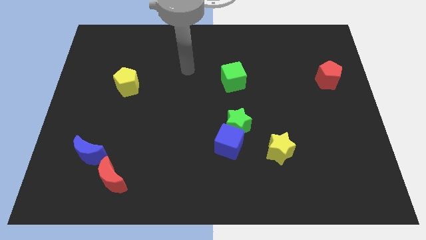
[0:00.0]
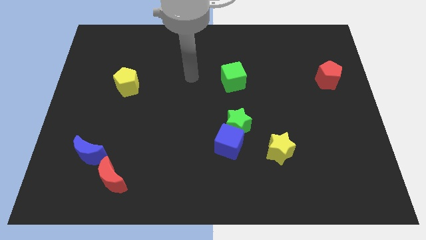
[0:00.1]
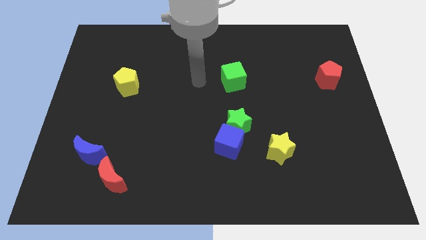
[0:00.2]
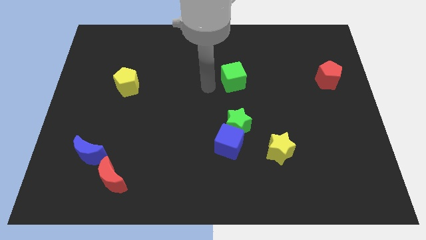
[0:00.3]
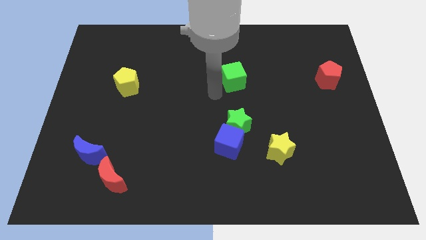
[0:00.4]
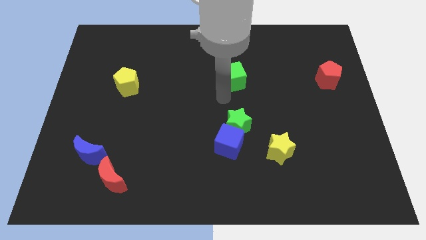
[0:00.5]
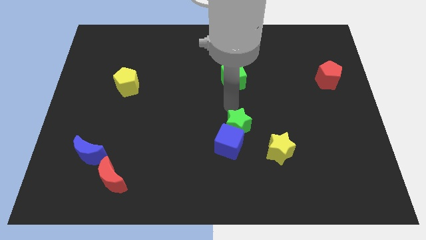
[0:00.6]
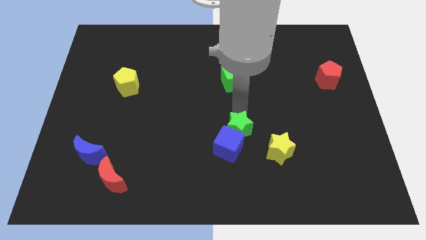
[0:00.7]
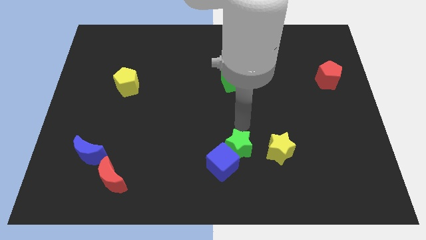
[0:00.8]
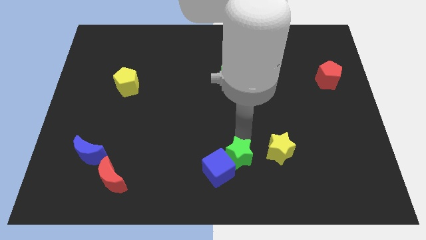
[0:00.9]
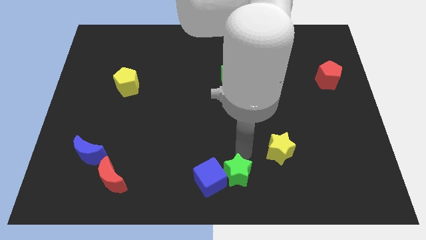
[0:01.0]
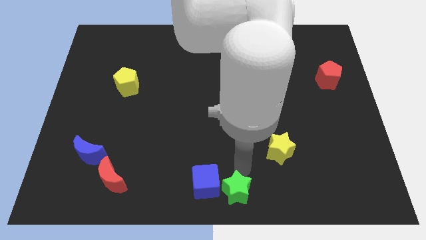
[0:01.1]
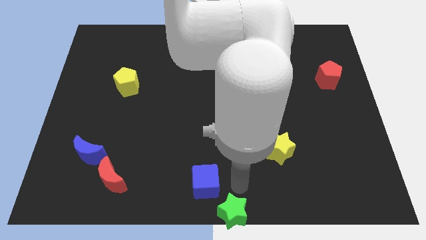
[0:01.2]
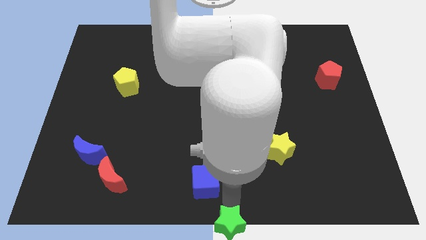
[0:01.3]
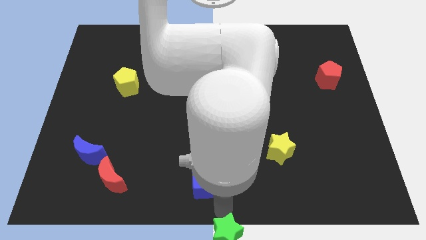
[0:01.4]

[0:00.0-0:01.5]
move the blue cube away from the green star

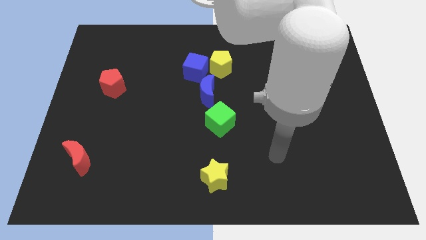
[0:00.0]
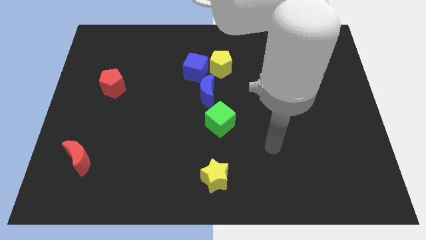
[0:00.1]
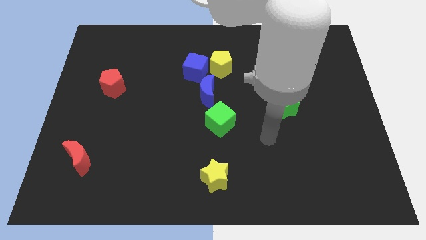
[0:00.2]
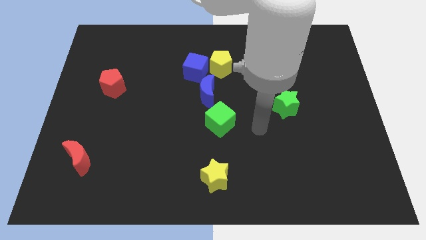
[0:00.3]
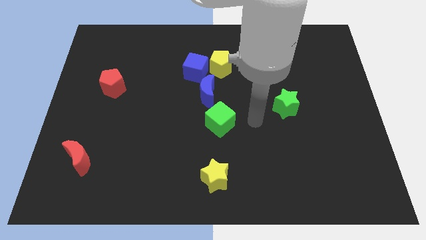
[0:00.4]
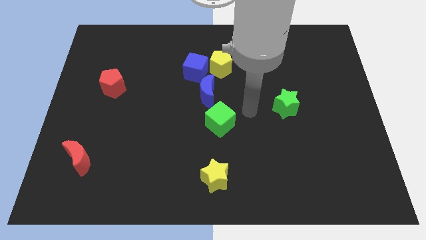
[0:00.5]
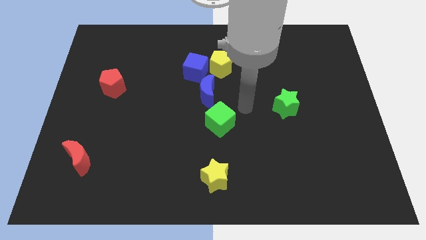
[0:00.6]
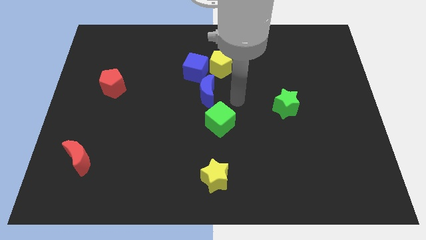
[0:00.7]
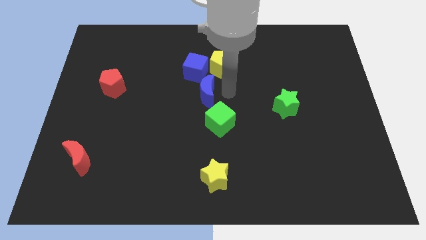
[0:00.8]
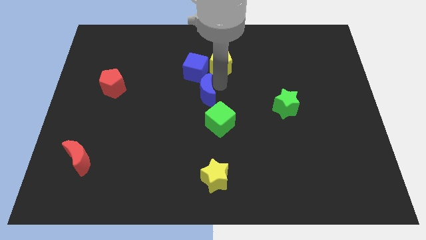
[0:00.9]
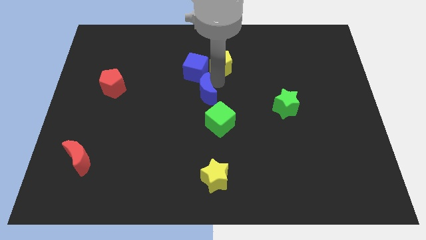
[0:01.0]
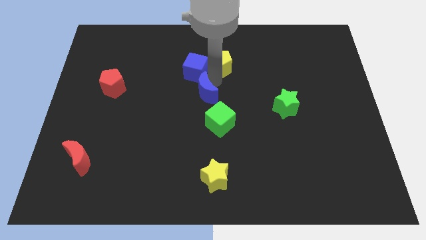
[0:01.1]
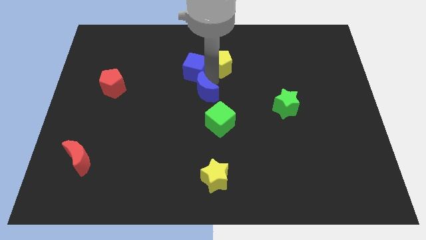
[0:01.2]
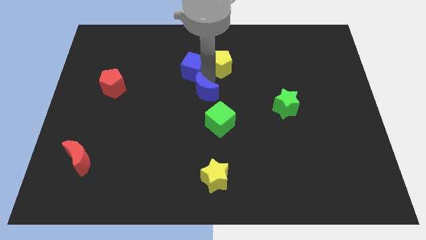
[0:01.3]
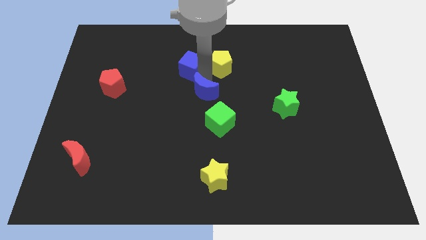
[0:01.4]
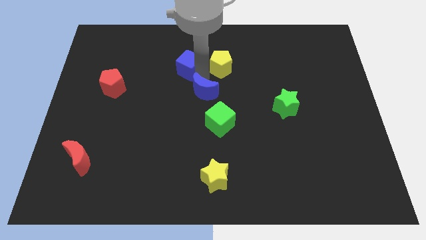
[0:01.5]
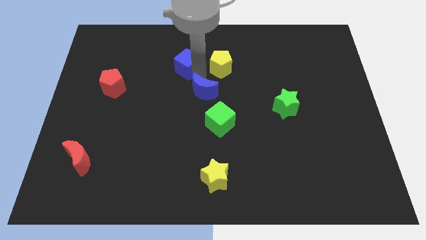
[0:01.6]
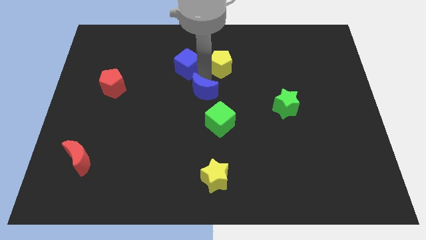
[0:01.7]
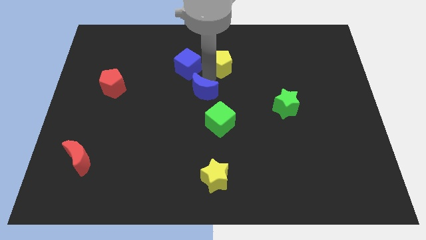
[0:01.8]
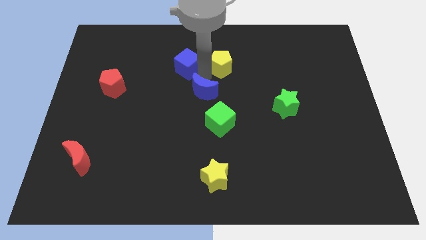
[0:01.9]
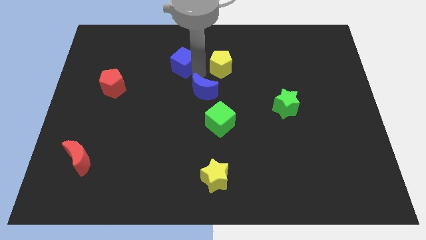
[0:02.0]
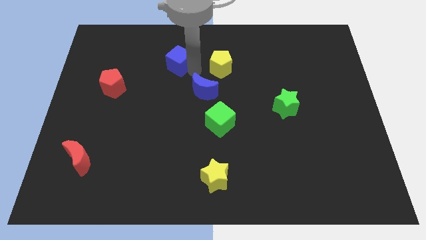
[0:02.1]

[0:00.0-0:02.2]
separate the blue cube from the yellow pentagon and blue moon

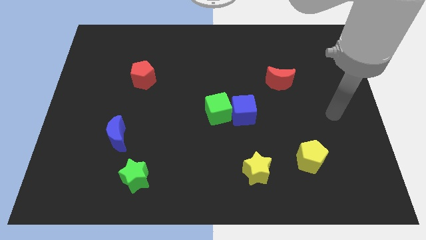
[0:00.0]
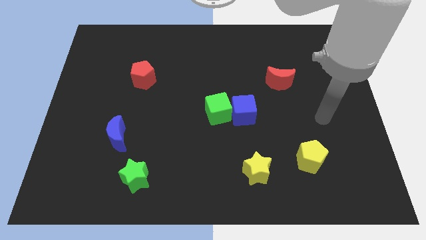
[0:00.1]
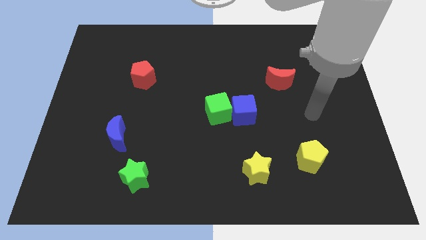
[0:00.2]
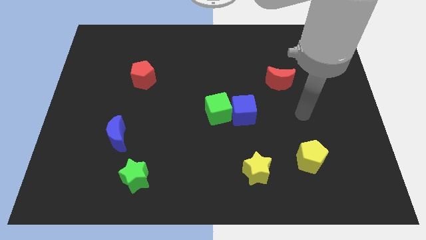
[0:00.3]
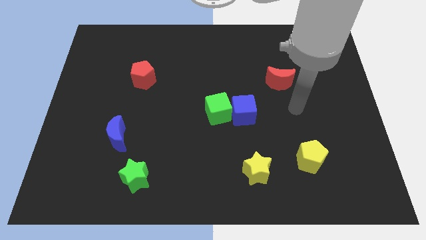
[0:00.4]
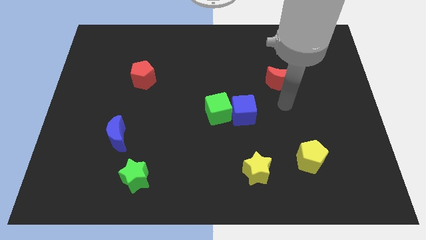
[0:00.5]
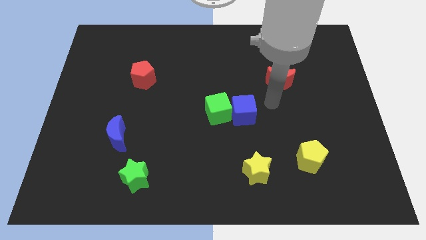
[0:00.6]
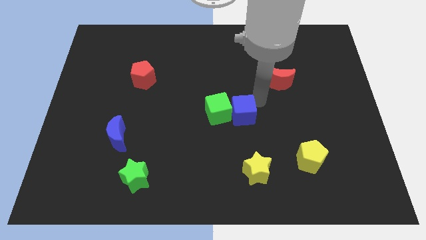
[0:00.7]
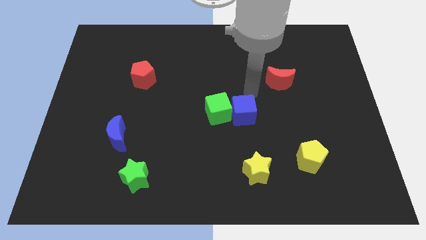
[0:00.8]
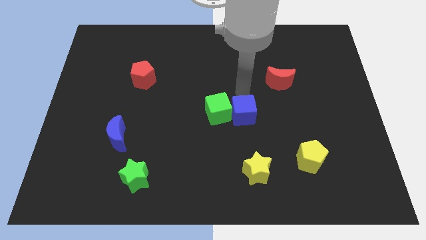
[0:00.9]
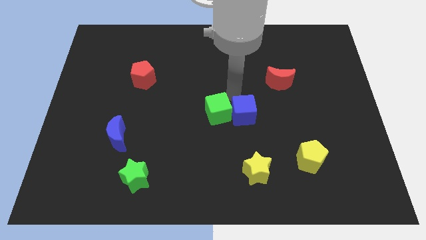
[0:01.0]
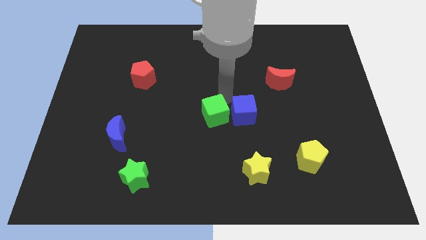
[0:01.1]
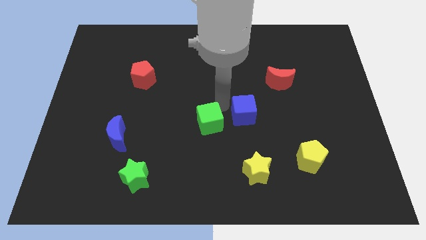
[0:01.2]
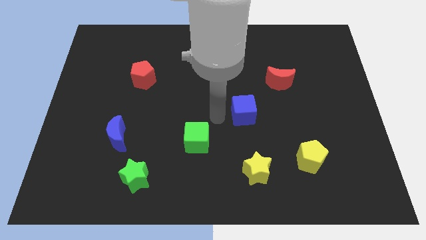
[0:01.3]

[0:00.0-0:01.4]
separate the blue cube from the green cube

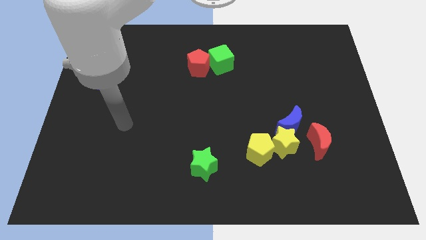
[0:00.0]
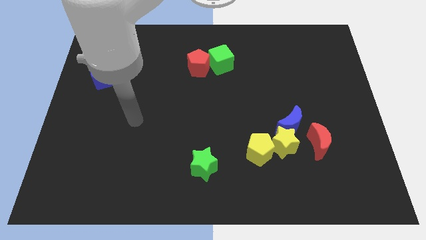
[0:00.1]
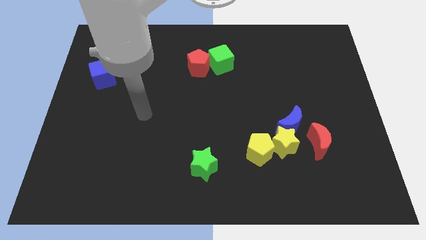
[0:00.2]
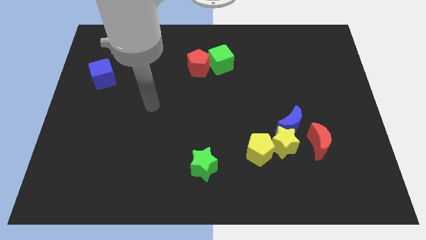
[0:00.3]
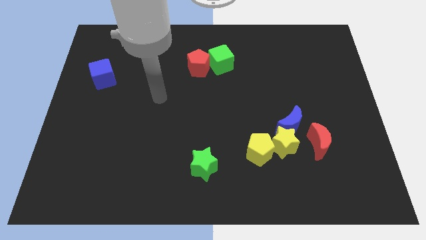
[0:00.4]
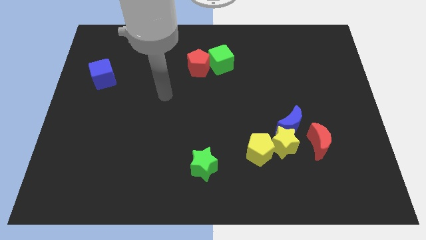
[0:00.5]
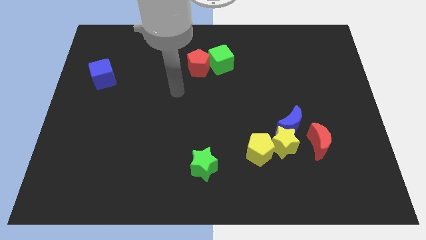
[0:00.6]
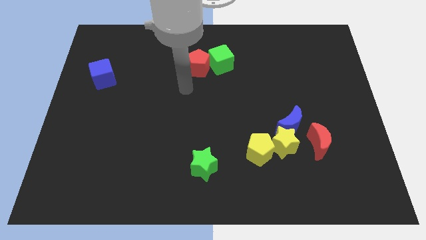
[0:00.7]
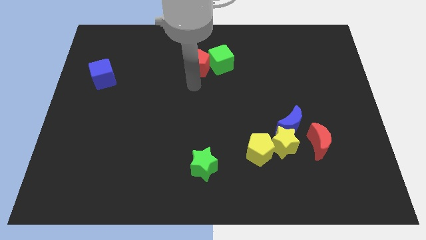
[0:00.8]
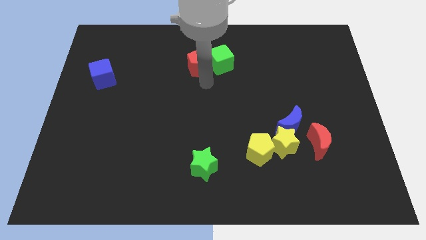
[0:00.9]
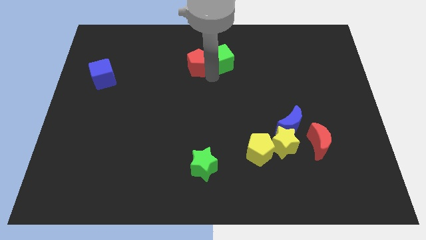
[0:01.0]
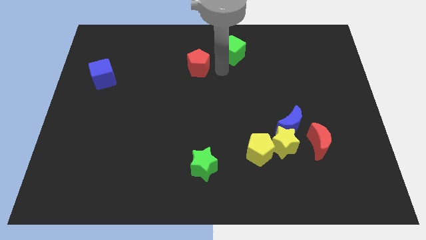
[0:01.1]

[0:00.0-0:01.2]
move the red pentagon away from the green cube

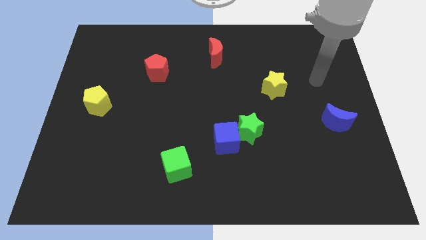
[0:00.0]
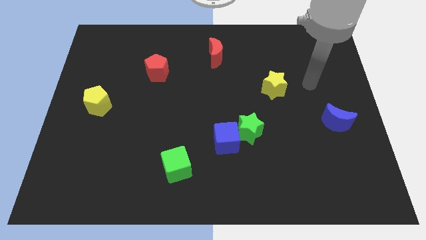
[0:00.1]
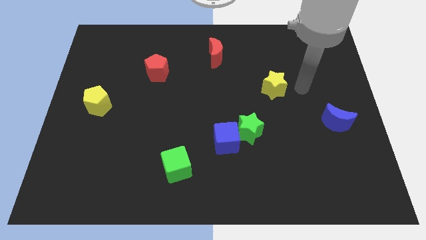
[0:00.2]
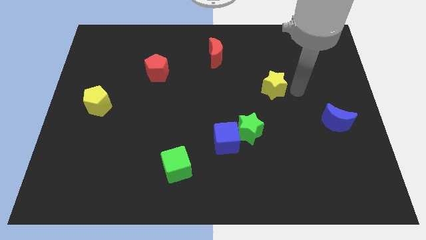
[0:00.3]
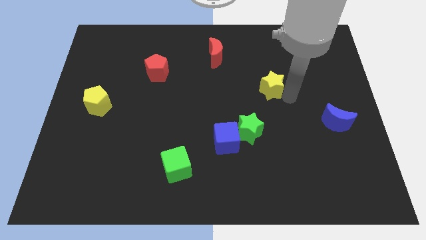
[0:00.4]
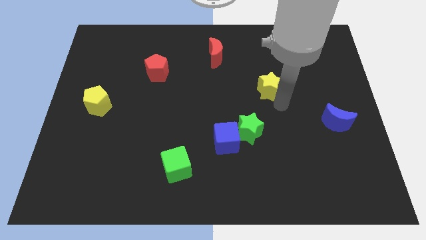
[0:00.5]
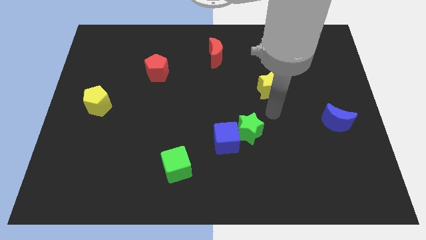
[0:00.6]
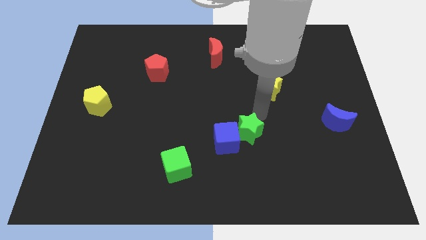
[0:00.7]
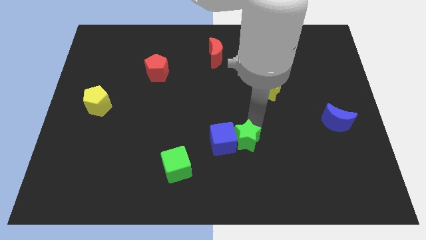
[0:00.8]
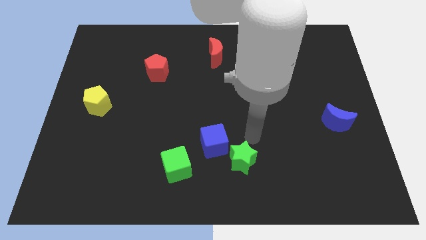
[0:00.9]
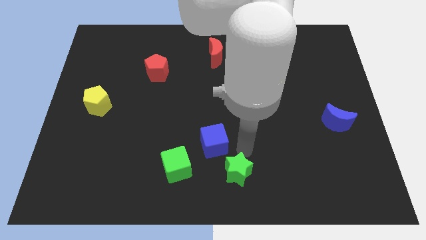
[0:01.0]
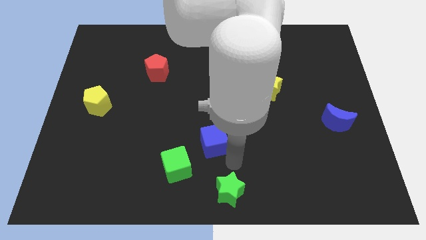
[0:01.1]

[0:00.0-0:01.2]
separate the blue cube from the green star

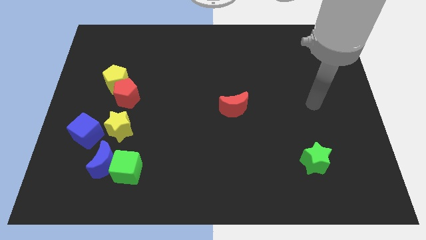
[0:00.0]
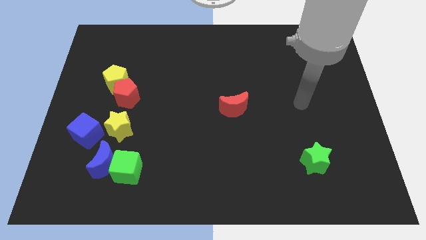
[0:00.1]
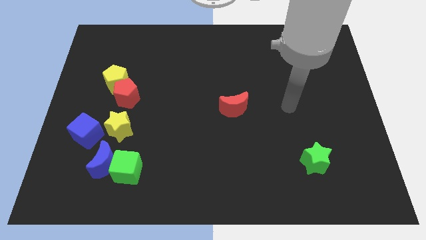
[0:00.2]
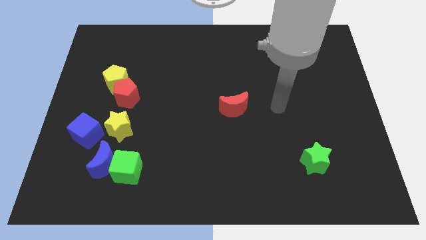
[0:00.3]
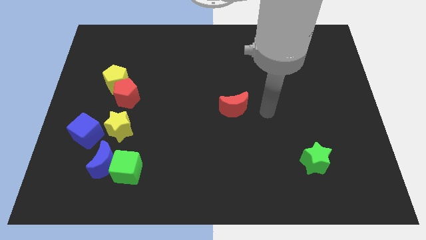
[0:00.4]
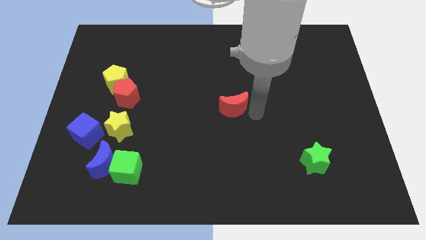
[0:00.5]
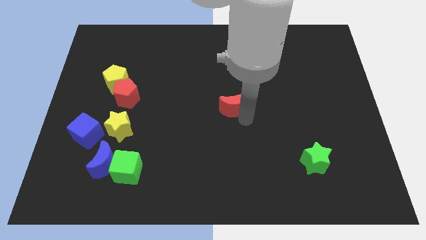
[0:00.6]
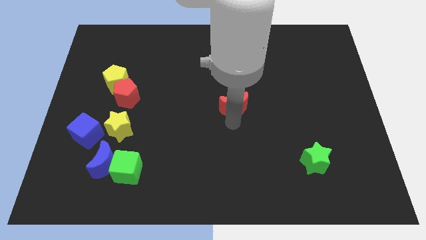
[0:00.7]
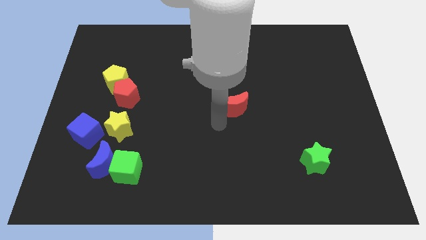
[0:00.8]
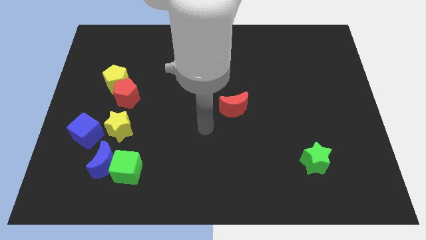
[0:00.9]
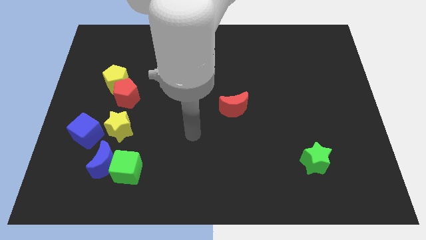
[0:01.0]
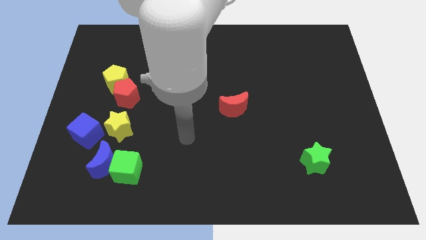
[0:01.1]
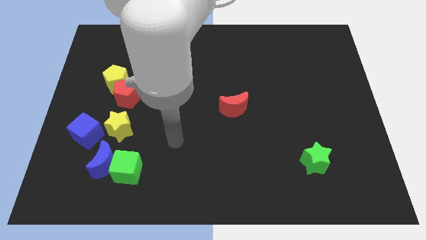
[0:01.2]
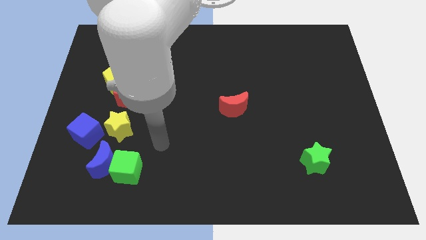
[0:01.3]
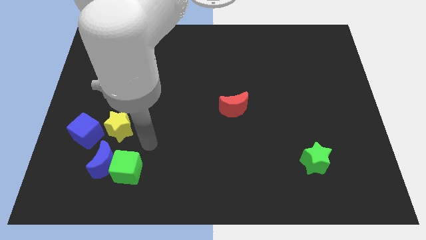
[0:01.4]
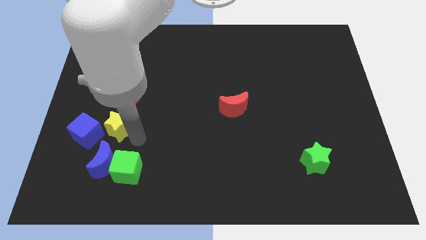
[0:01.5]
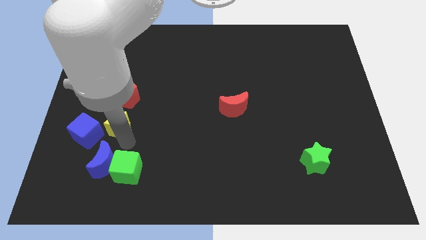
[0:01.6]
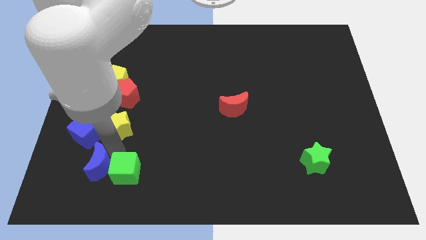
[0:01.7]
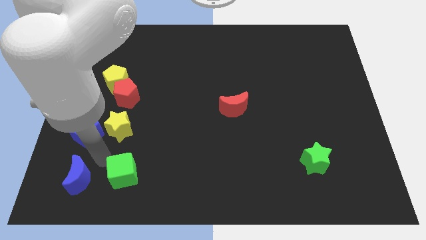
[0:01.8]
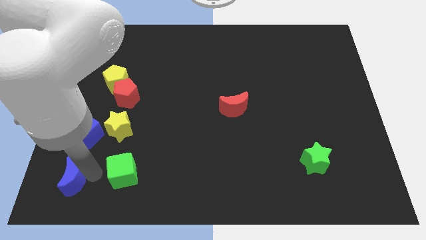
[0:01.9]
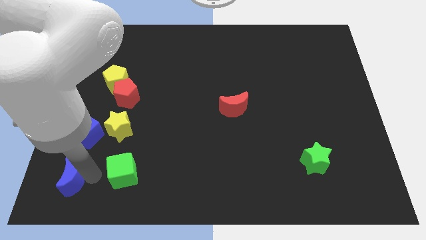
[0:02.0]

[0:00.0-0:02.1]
pull the green cube apart from the blue moon
